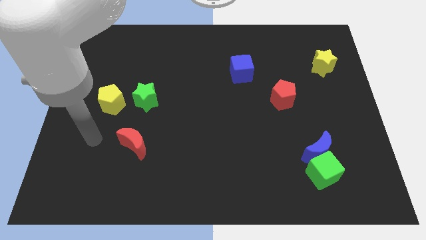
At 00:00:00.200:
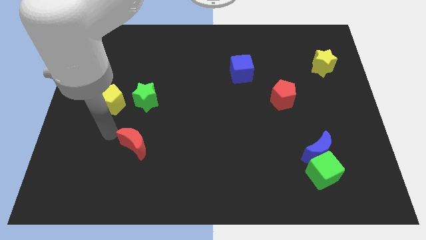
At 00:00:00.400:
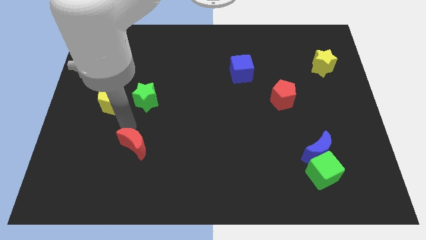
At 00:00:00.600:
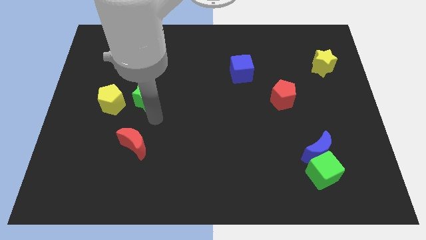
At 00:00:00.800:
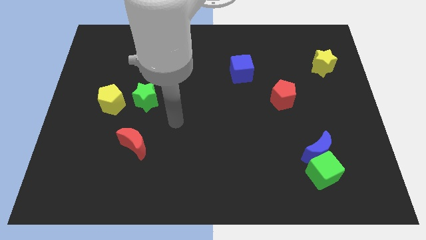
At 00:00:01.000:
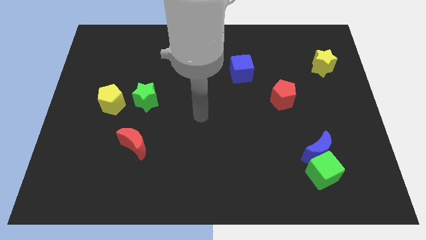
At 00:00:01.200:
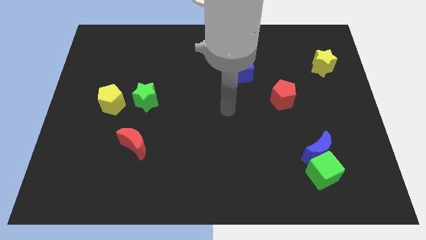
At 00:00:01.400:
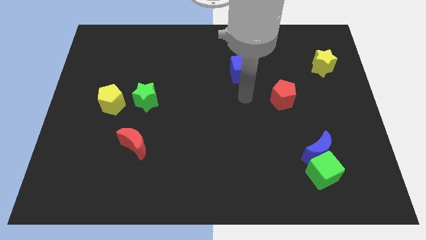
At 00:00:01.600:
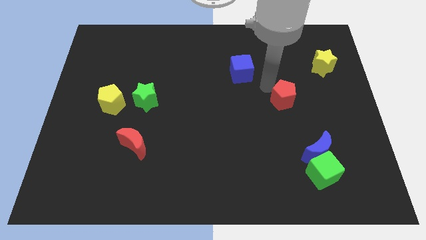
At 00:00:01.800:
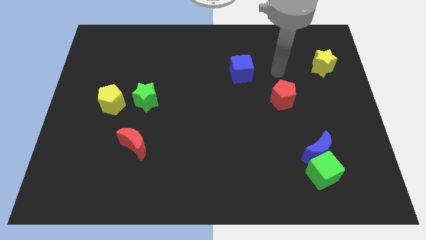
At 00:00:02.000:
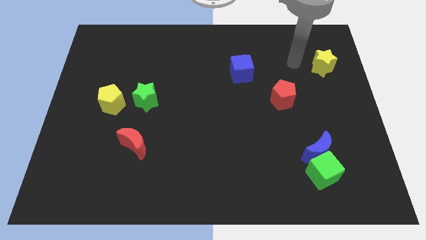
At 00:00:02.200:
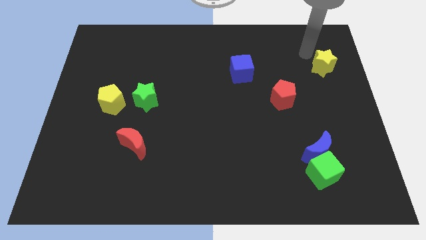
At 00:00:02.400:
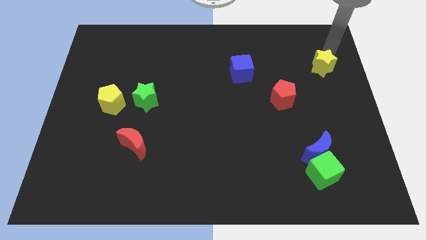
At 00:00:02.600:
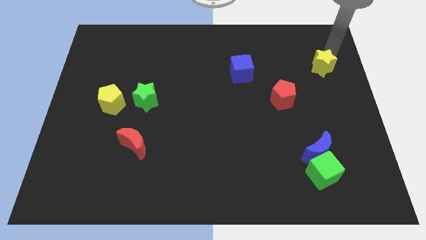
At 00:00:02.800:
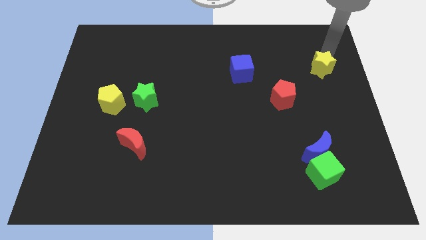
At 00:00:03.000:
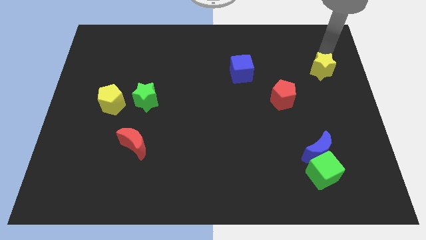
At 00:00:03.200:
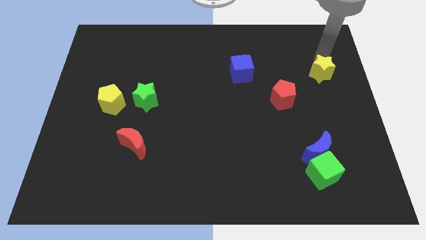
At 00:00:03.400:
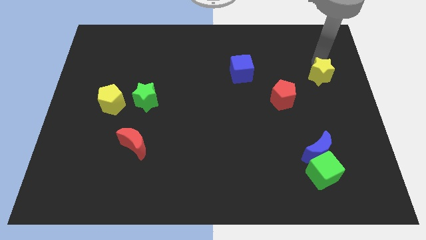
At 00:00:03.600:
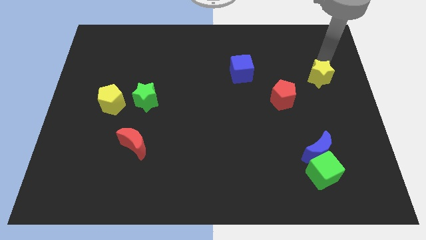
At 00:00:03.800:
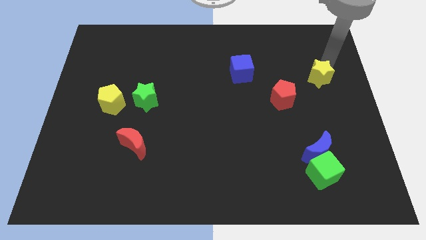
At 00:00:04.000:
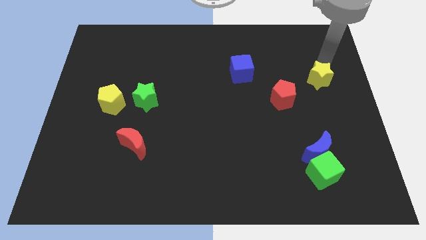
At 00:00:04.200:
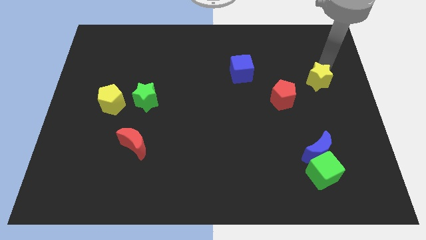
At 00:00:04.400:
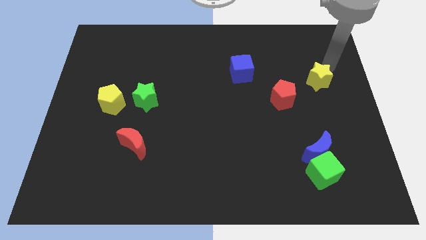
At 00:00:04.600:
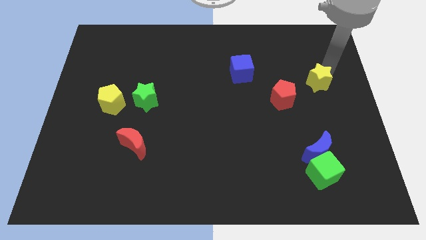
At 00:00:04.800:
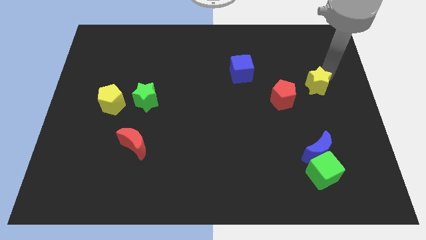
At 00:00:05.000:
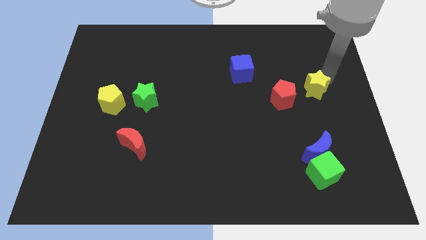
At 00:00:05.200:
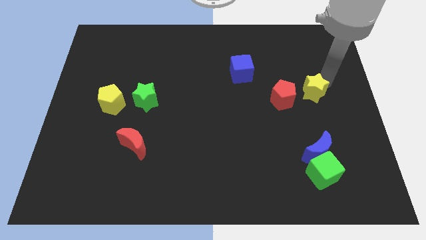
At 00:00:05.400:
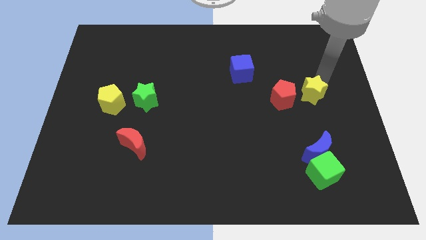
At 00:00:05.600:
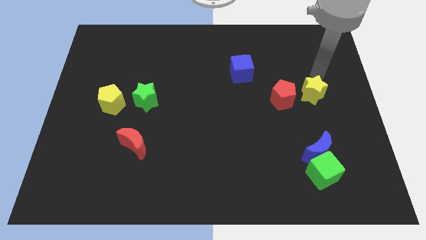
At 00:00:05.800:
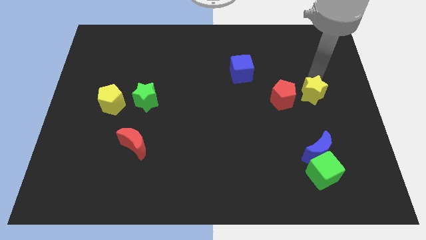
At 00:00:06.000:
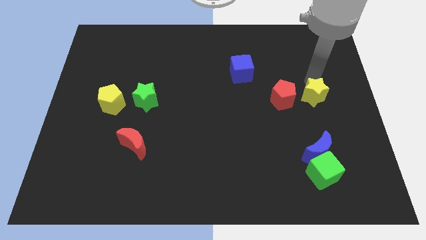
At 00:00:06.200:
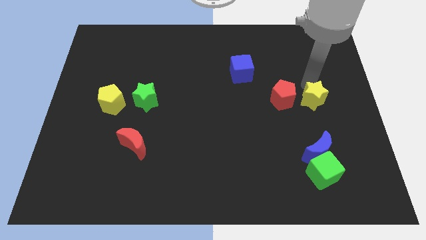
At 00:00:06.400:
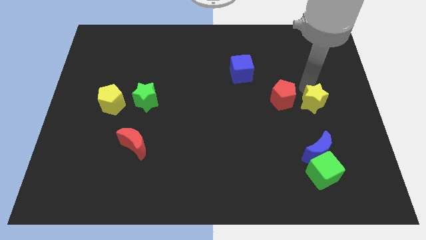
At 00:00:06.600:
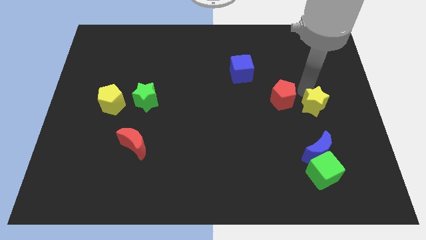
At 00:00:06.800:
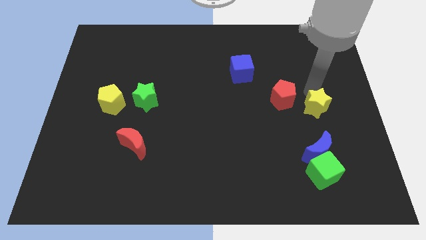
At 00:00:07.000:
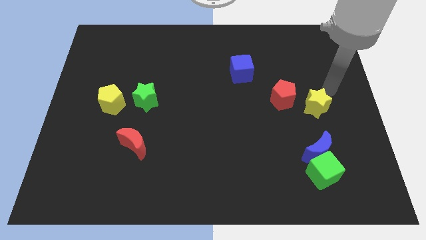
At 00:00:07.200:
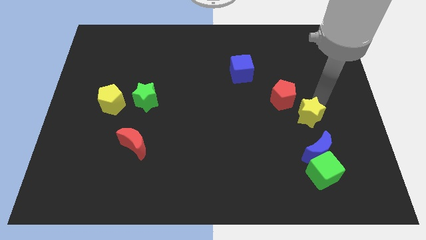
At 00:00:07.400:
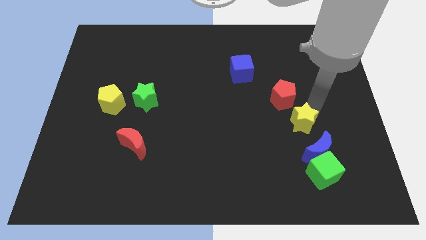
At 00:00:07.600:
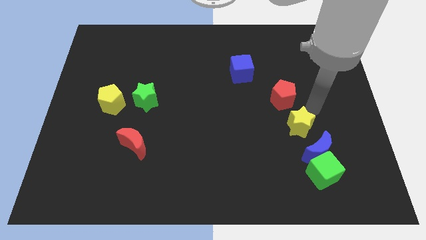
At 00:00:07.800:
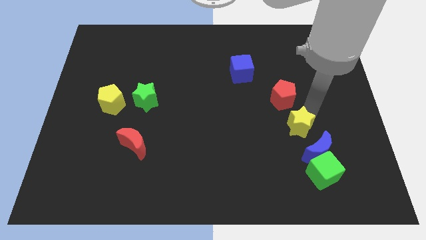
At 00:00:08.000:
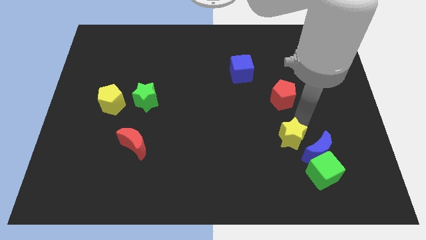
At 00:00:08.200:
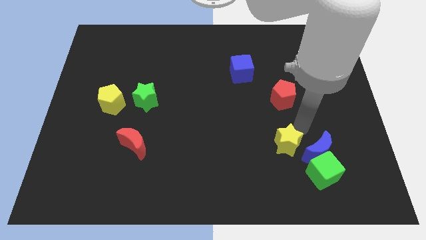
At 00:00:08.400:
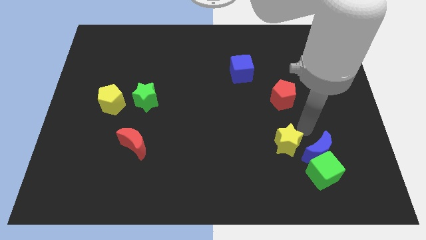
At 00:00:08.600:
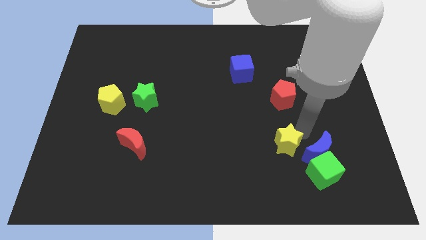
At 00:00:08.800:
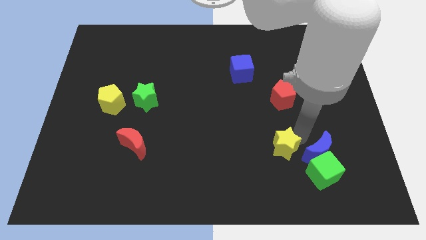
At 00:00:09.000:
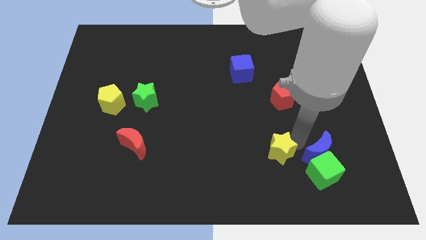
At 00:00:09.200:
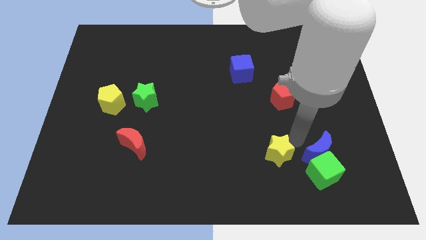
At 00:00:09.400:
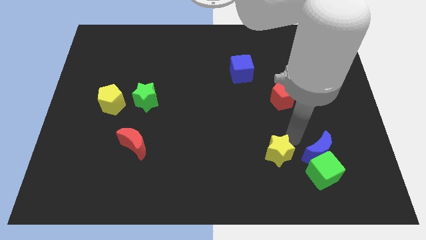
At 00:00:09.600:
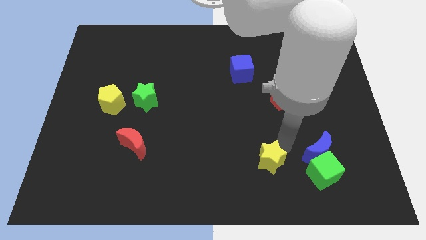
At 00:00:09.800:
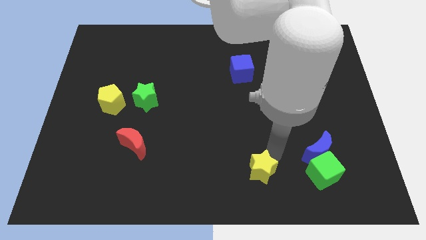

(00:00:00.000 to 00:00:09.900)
slide the yellow star to the bottom side
